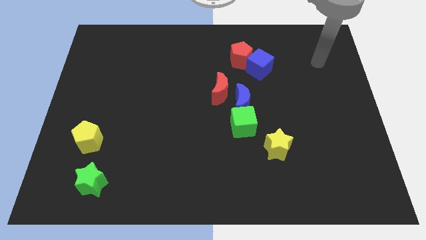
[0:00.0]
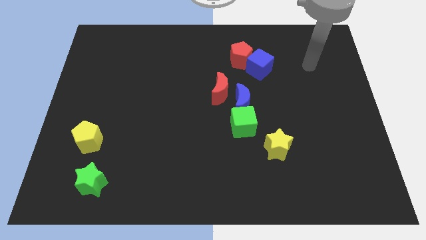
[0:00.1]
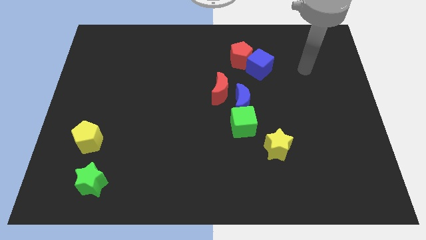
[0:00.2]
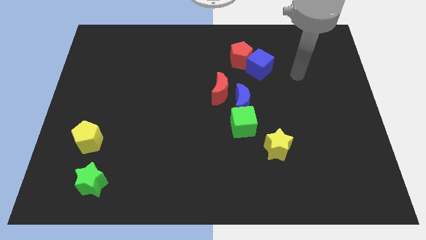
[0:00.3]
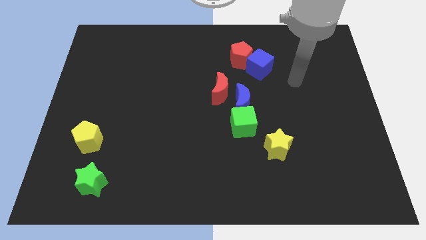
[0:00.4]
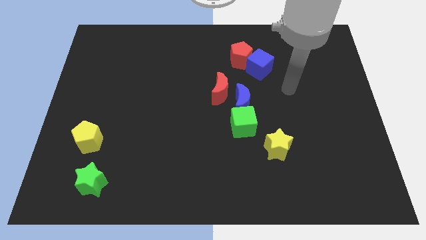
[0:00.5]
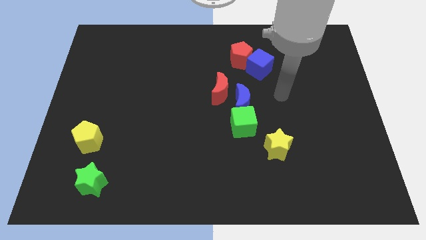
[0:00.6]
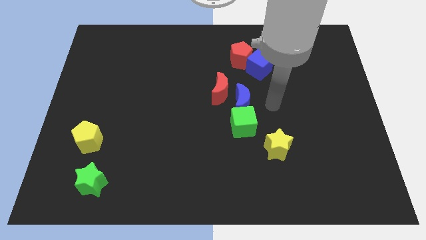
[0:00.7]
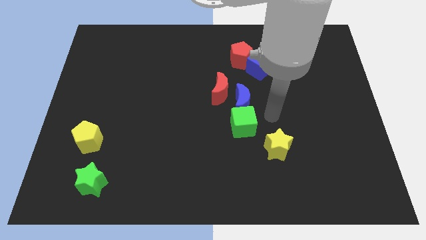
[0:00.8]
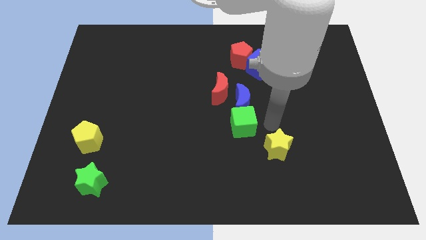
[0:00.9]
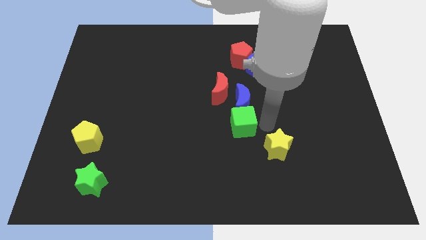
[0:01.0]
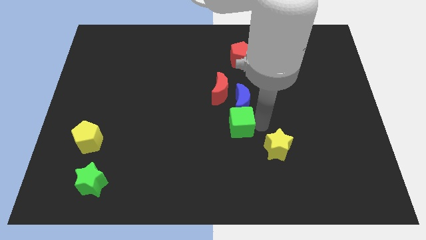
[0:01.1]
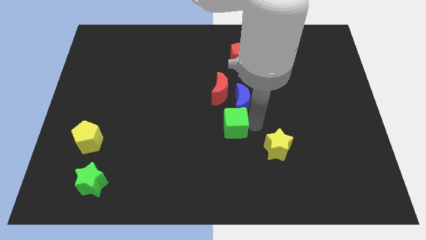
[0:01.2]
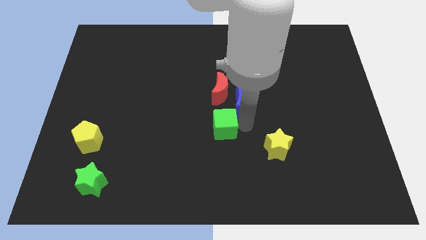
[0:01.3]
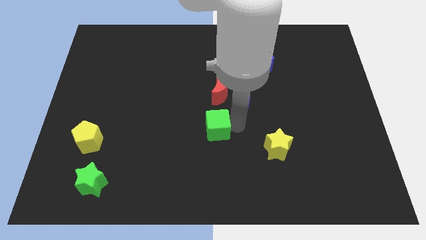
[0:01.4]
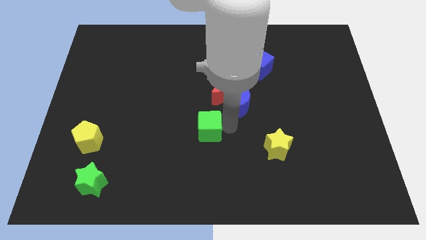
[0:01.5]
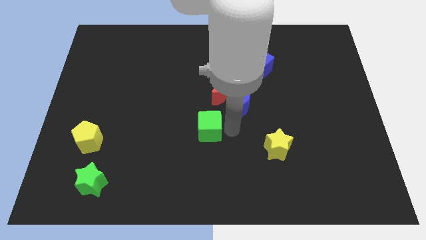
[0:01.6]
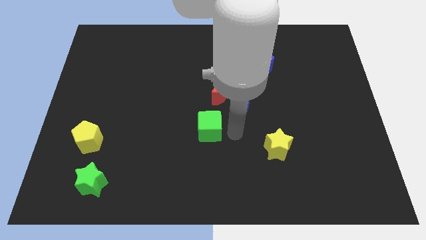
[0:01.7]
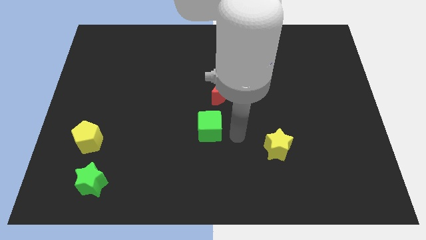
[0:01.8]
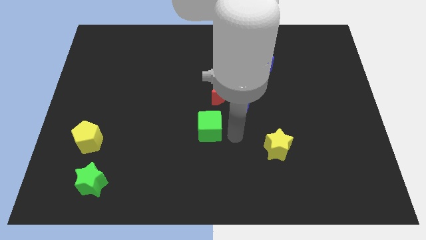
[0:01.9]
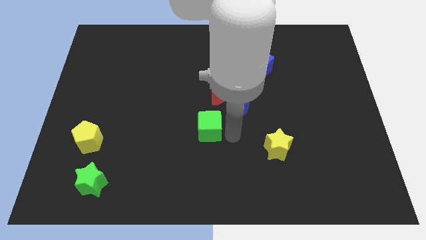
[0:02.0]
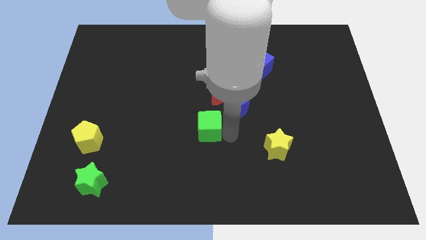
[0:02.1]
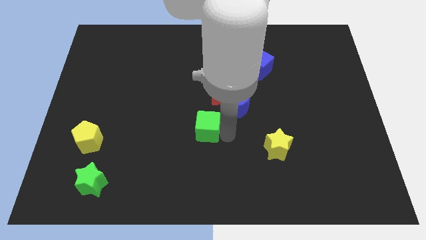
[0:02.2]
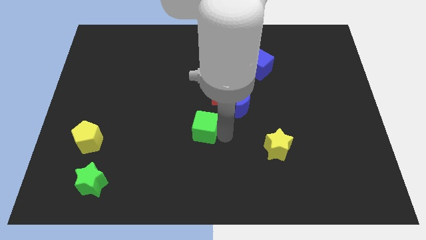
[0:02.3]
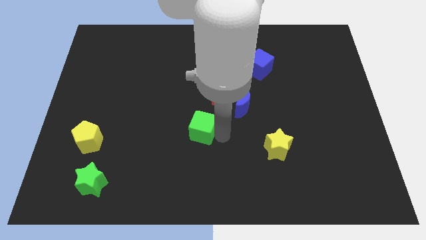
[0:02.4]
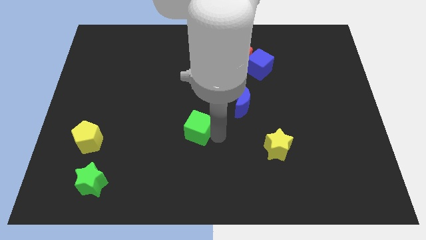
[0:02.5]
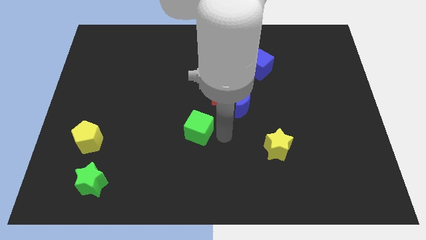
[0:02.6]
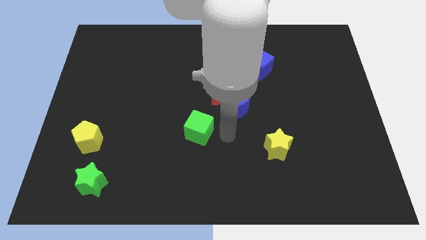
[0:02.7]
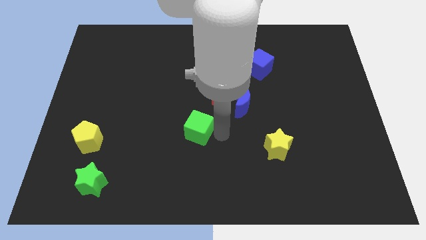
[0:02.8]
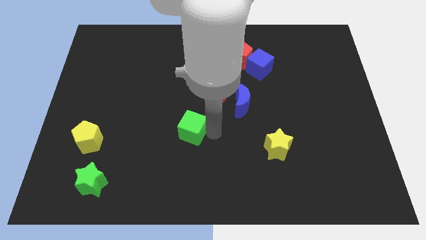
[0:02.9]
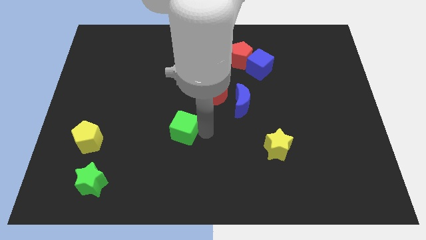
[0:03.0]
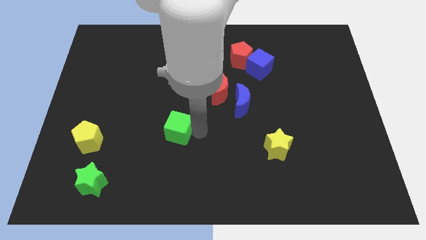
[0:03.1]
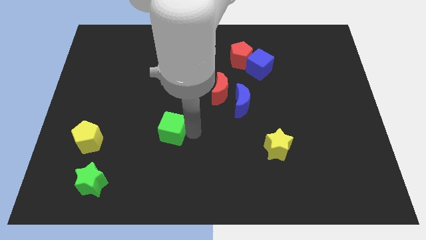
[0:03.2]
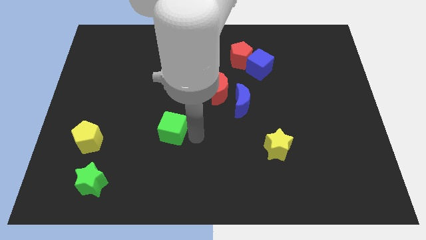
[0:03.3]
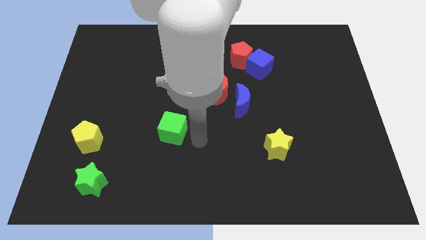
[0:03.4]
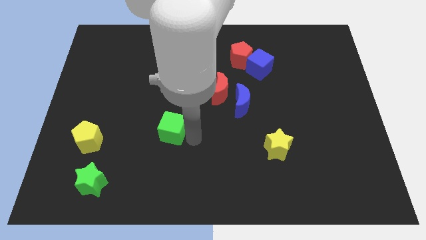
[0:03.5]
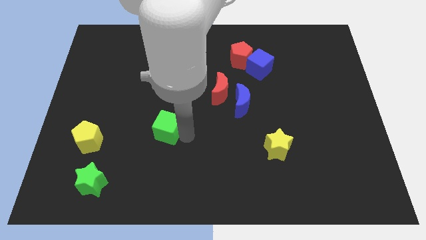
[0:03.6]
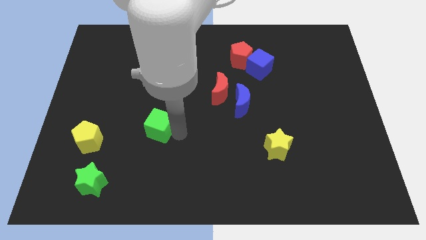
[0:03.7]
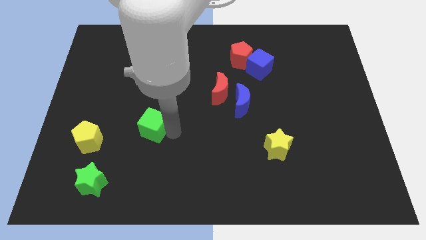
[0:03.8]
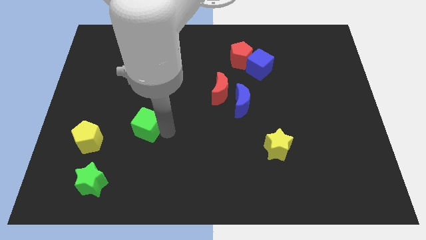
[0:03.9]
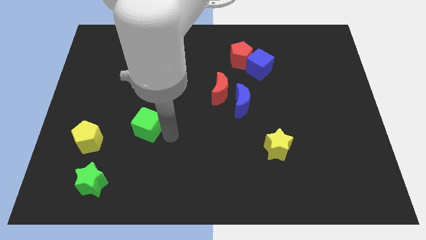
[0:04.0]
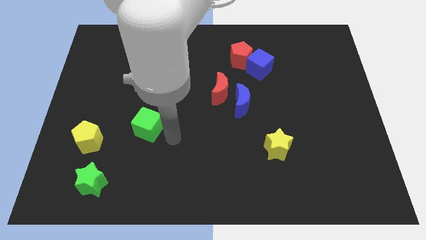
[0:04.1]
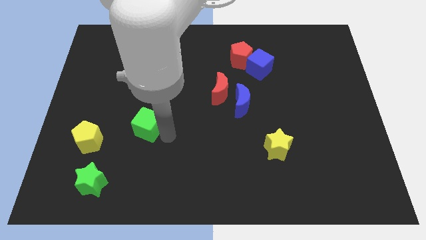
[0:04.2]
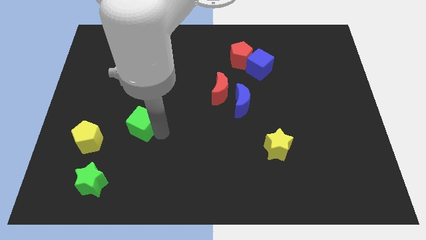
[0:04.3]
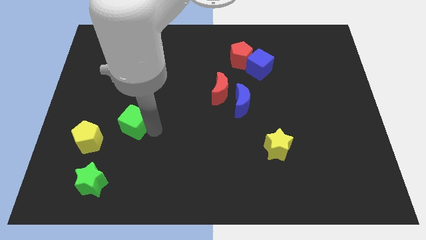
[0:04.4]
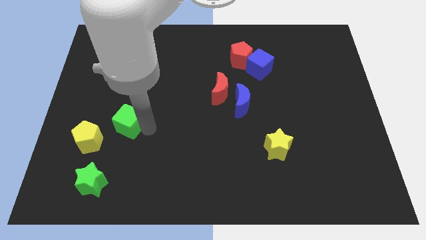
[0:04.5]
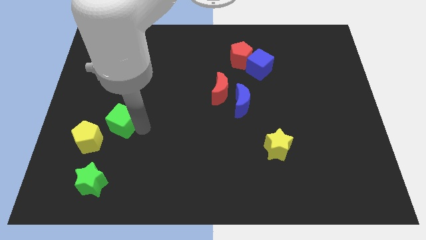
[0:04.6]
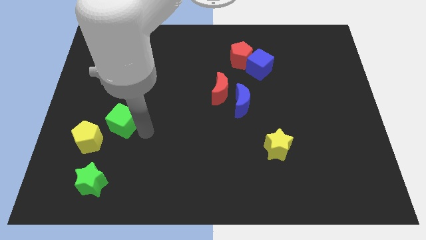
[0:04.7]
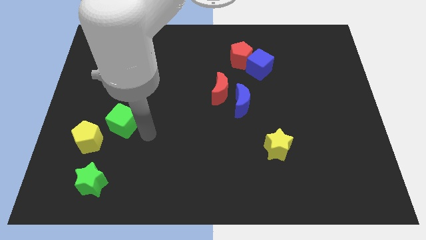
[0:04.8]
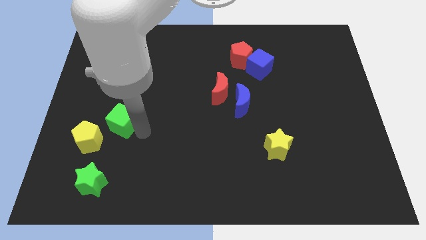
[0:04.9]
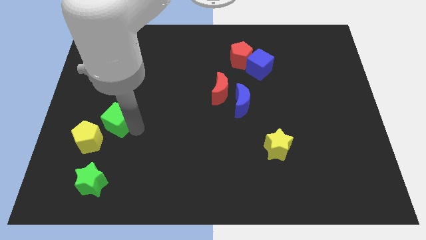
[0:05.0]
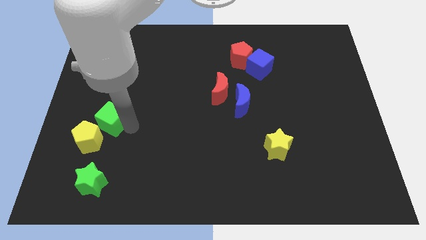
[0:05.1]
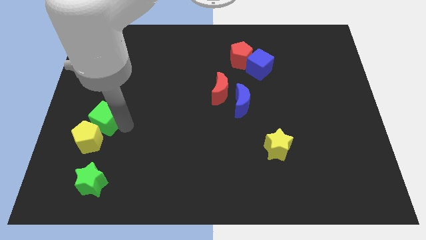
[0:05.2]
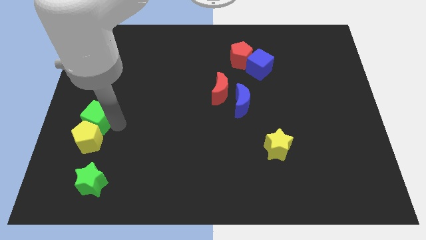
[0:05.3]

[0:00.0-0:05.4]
put the green cube to the left side

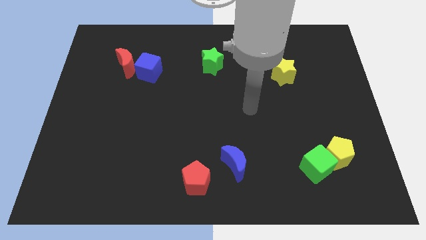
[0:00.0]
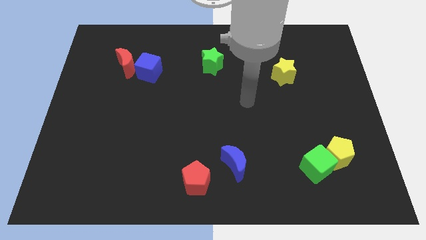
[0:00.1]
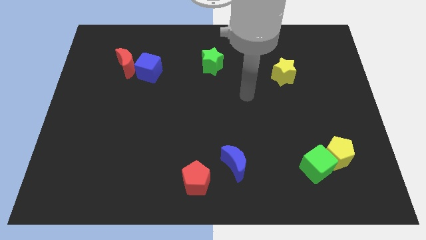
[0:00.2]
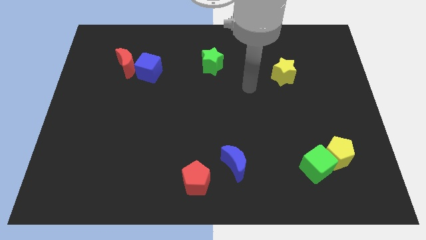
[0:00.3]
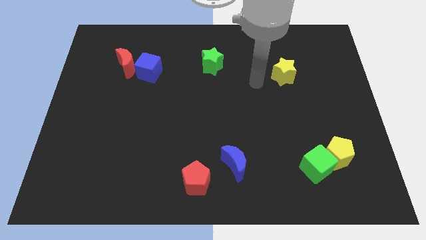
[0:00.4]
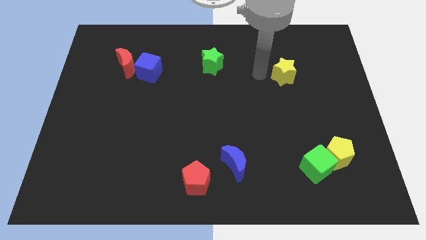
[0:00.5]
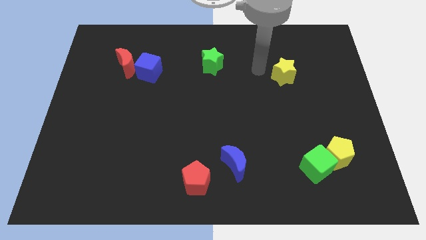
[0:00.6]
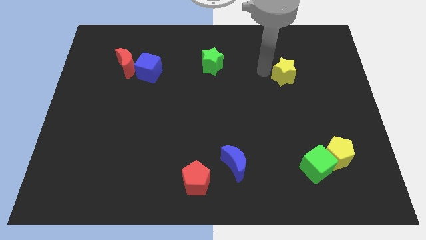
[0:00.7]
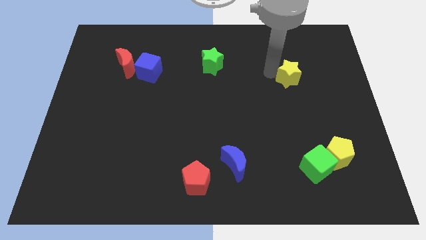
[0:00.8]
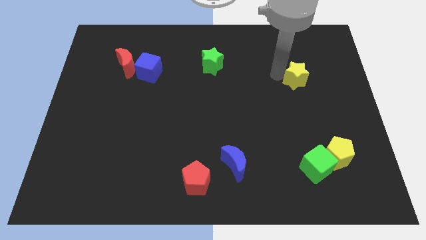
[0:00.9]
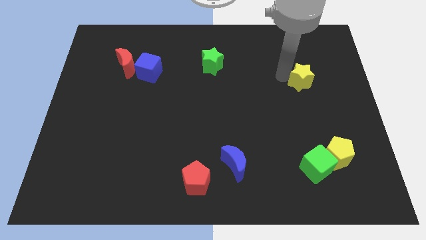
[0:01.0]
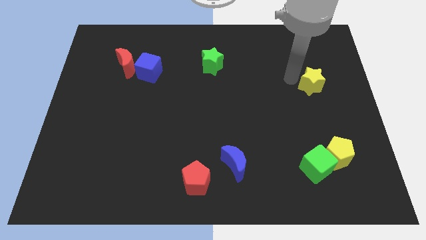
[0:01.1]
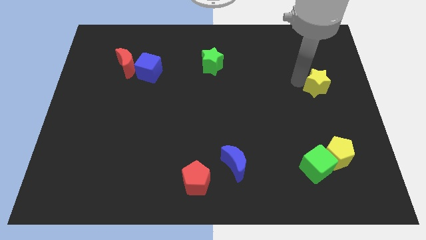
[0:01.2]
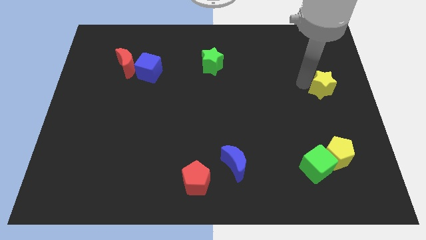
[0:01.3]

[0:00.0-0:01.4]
move the yellow star to the center right
